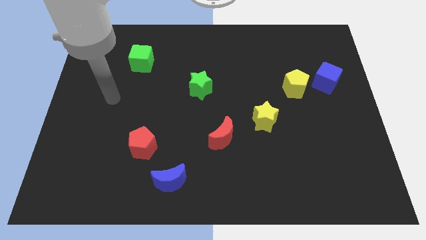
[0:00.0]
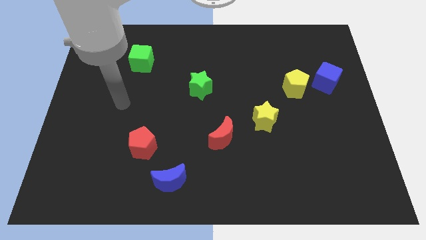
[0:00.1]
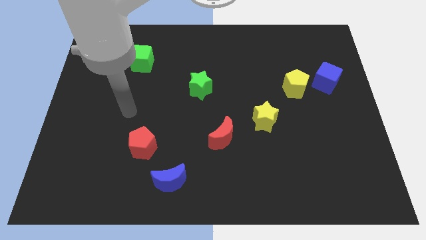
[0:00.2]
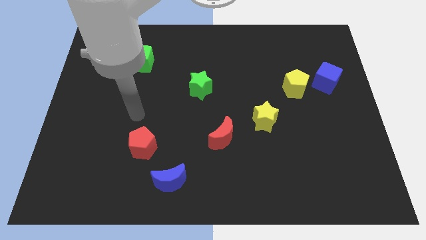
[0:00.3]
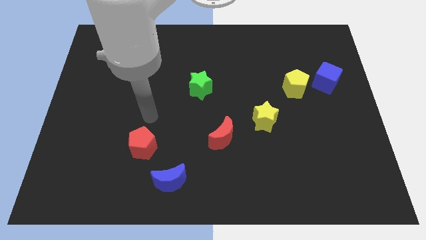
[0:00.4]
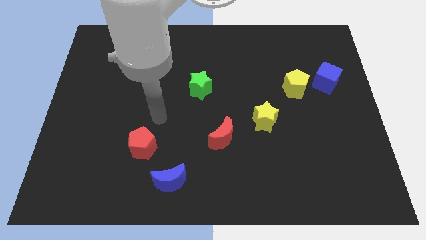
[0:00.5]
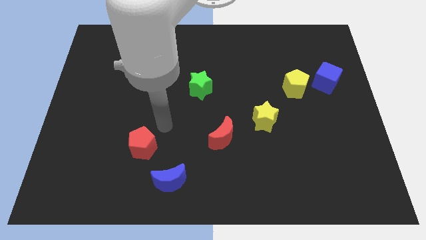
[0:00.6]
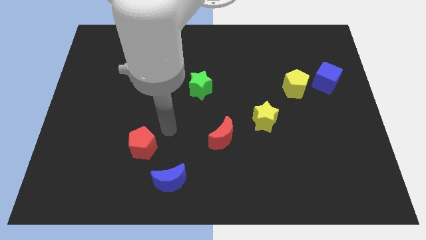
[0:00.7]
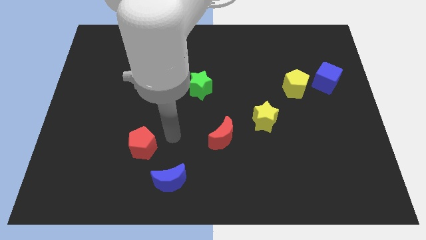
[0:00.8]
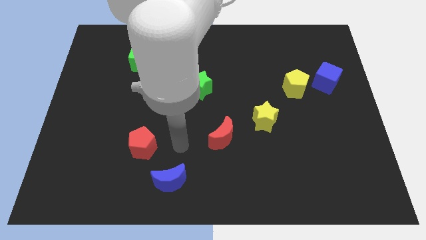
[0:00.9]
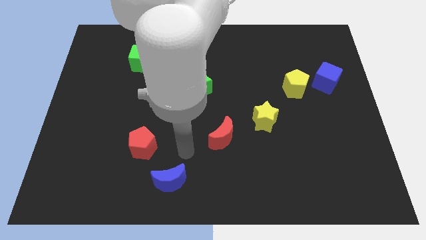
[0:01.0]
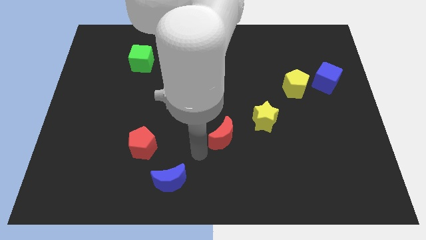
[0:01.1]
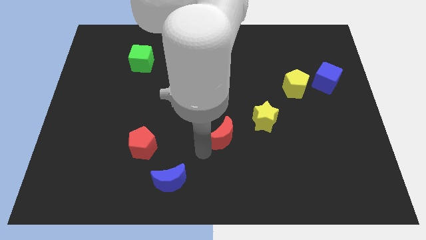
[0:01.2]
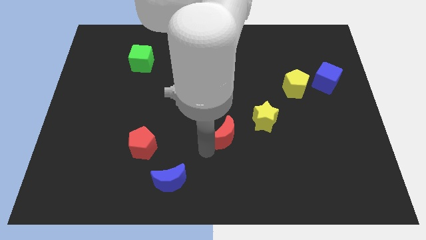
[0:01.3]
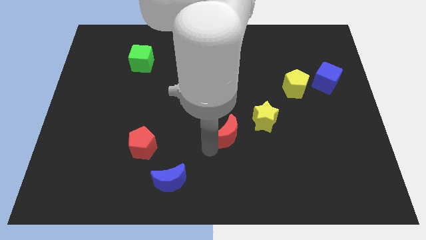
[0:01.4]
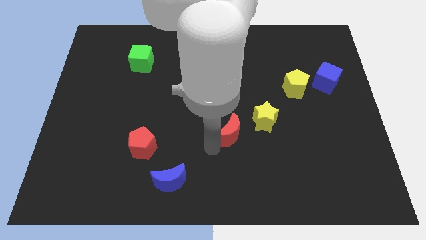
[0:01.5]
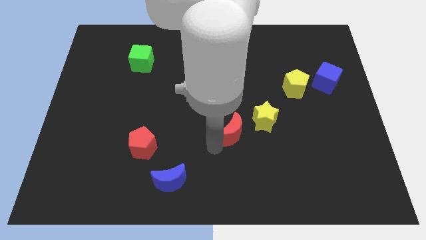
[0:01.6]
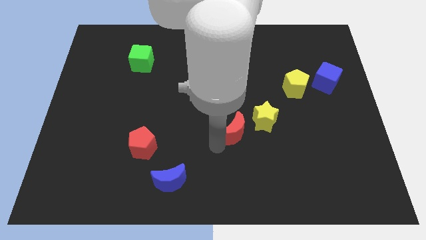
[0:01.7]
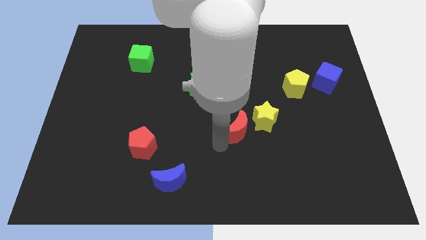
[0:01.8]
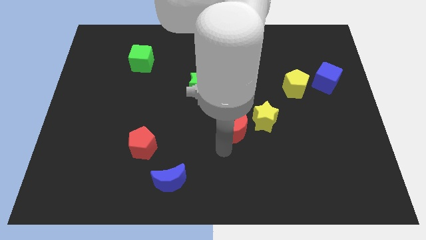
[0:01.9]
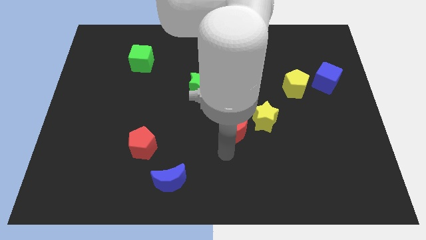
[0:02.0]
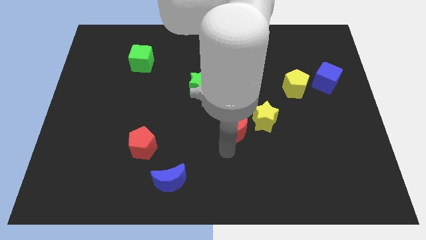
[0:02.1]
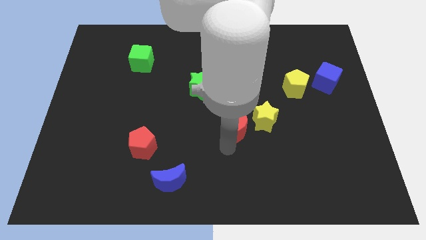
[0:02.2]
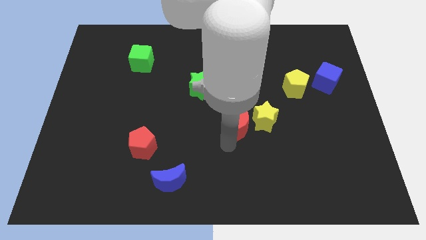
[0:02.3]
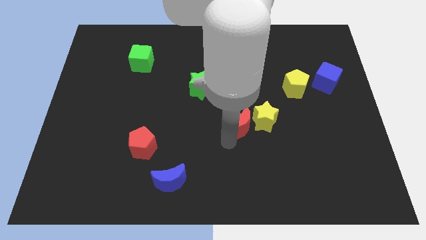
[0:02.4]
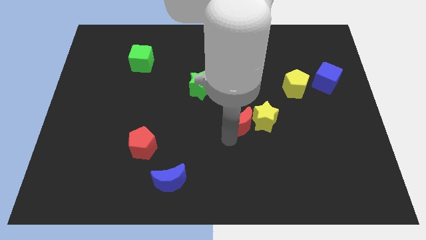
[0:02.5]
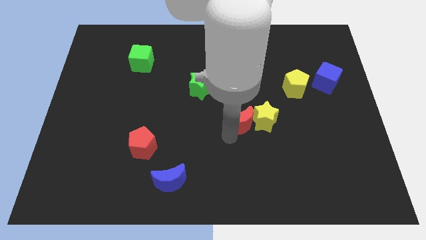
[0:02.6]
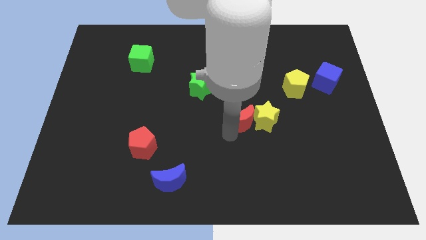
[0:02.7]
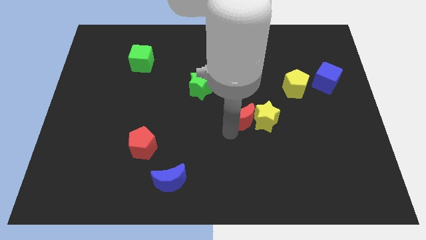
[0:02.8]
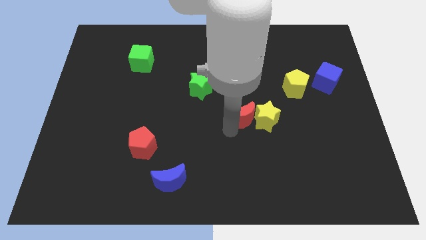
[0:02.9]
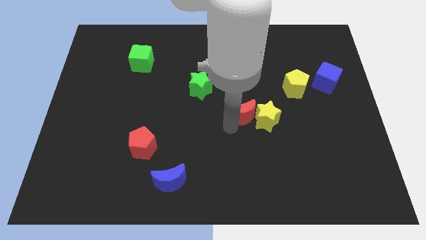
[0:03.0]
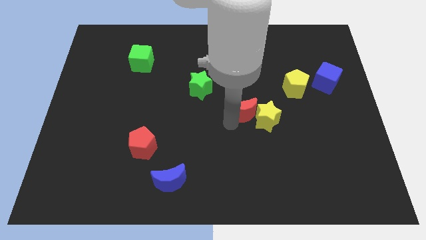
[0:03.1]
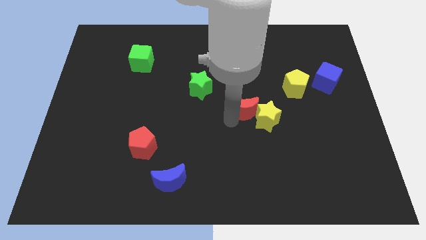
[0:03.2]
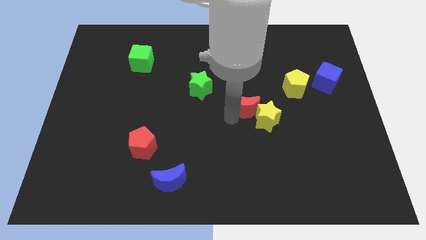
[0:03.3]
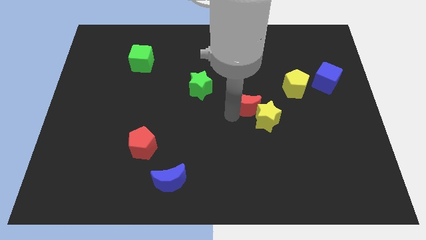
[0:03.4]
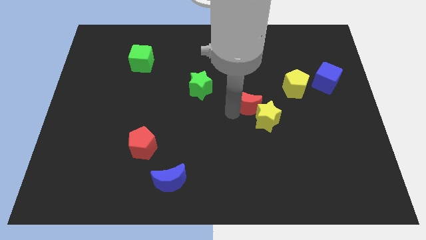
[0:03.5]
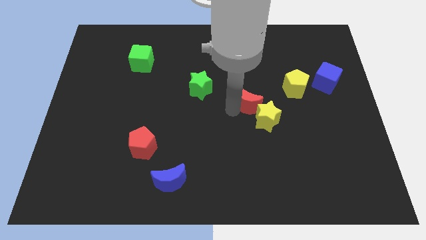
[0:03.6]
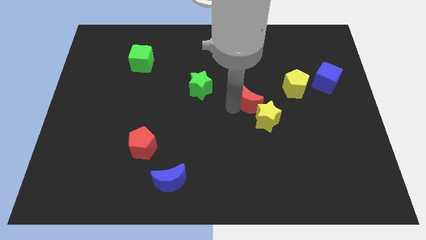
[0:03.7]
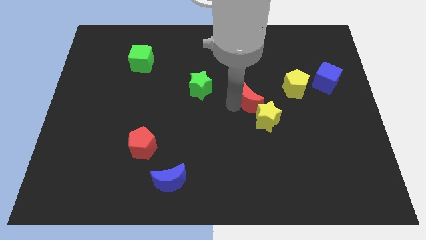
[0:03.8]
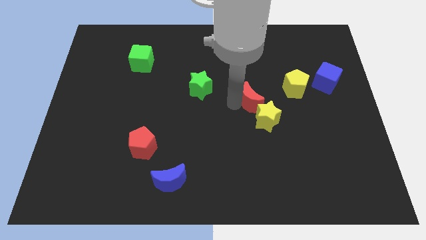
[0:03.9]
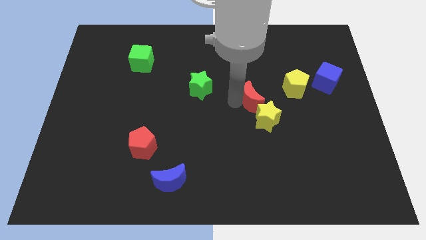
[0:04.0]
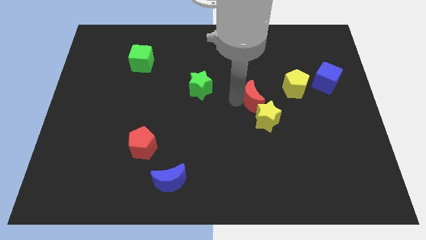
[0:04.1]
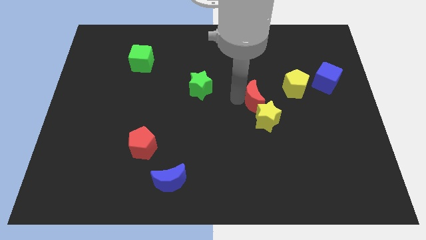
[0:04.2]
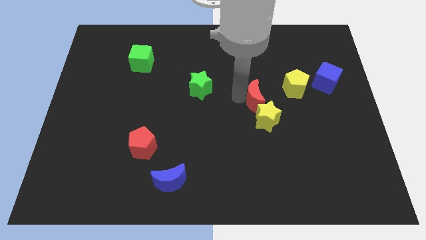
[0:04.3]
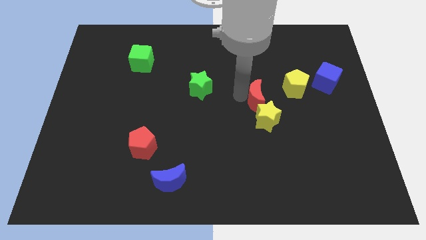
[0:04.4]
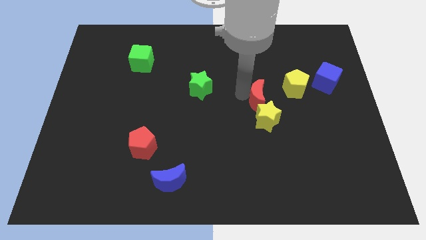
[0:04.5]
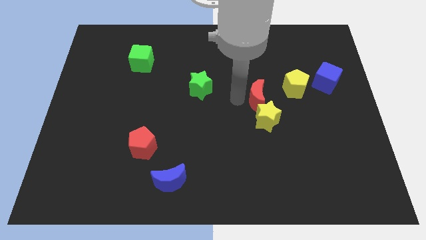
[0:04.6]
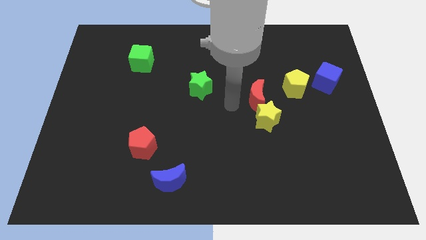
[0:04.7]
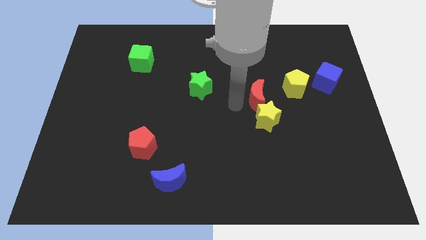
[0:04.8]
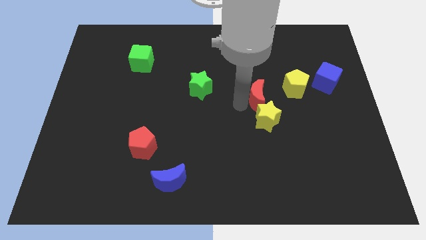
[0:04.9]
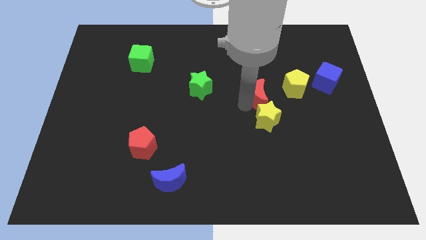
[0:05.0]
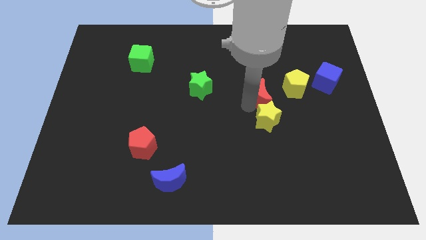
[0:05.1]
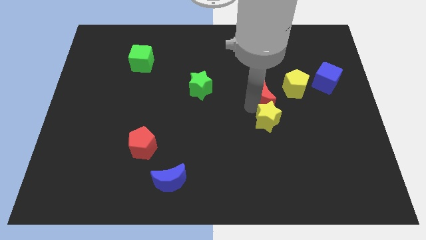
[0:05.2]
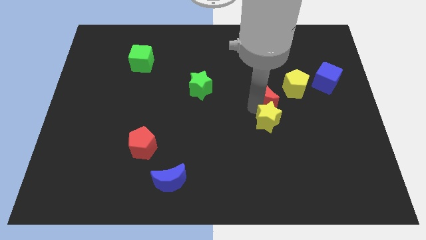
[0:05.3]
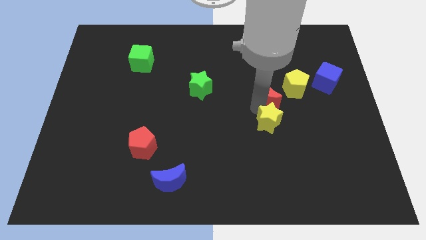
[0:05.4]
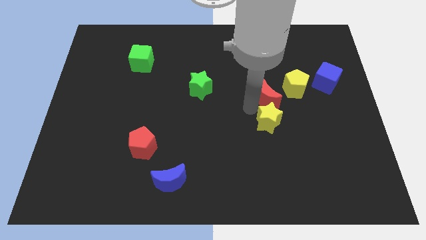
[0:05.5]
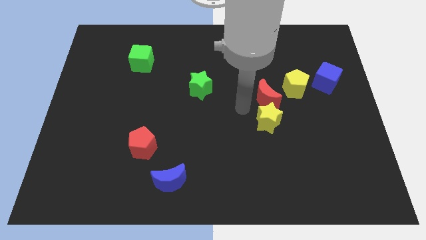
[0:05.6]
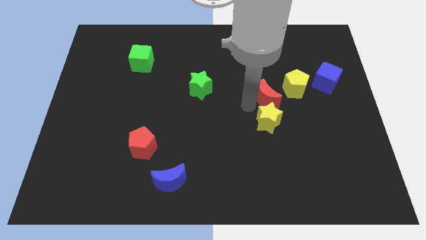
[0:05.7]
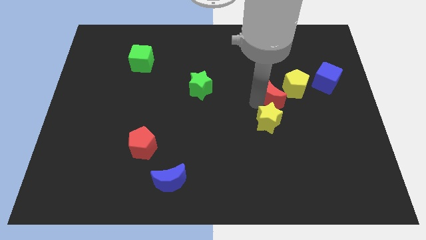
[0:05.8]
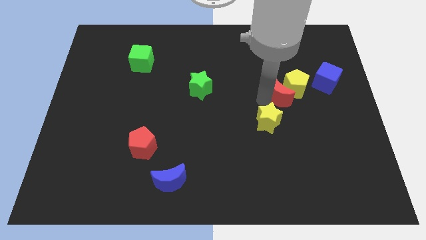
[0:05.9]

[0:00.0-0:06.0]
put the red moon next to the yellow pentagon

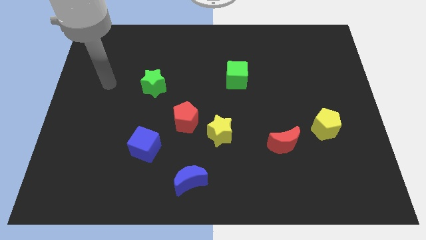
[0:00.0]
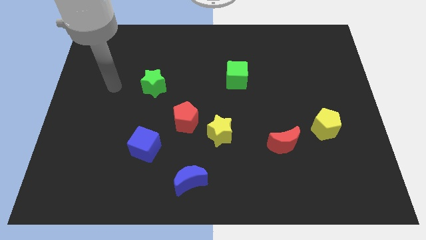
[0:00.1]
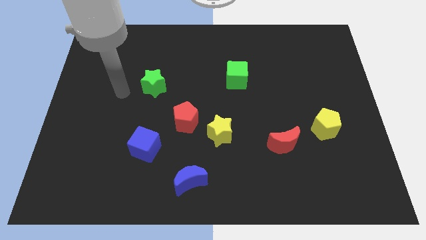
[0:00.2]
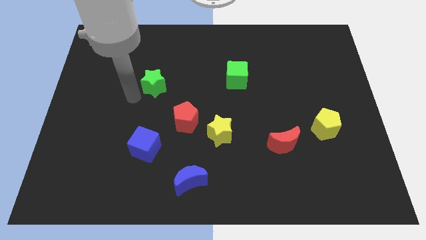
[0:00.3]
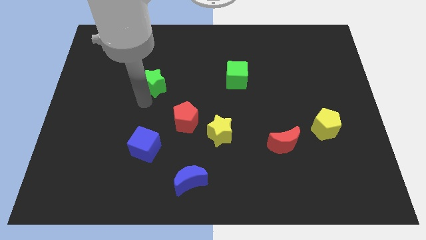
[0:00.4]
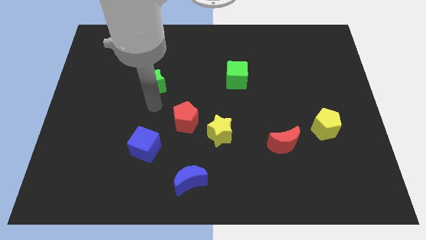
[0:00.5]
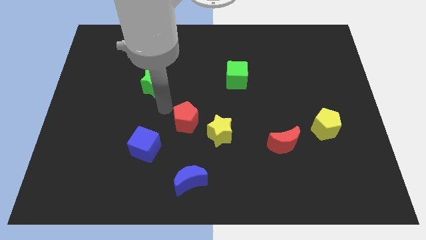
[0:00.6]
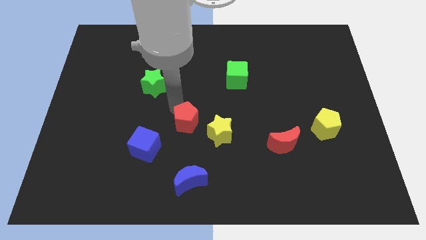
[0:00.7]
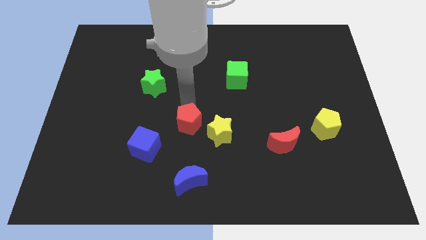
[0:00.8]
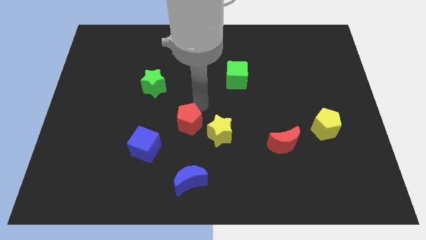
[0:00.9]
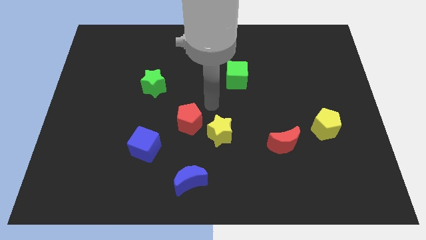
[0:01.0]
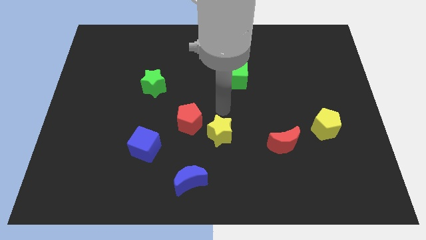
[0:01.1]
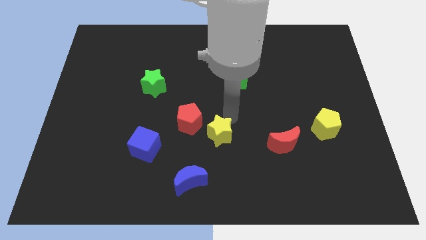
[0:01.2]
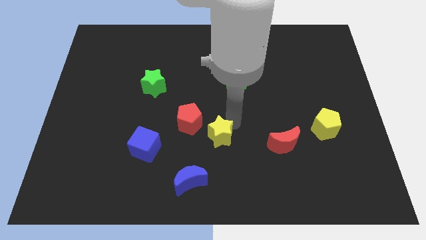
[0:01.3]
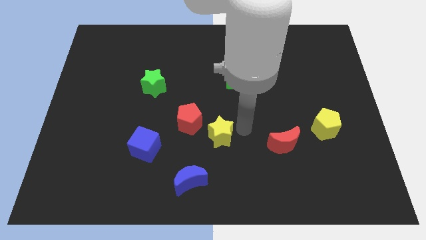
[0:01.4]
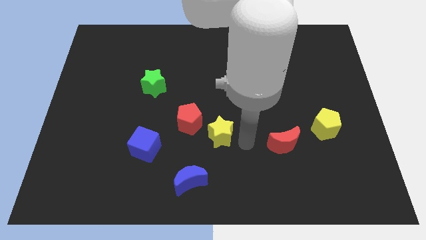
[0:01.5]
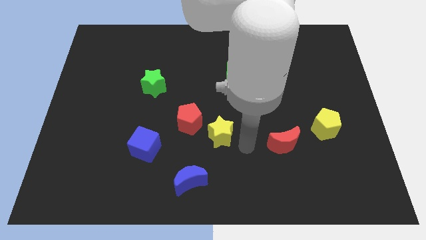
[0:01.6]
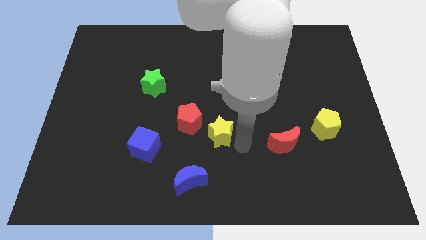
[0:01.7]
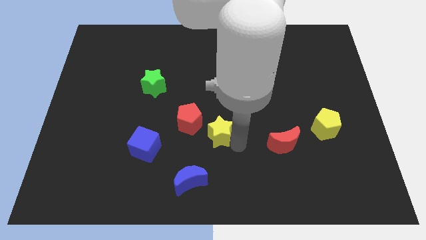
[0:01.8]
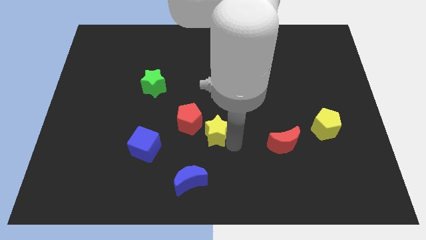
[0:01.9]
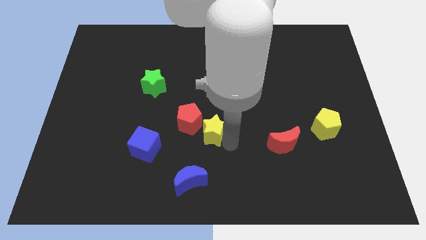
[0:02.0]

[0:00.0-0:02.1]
slide the yellow star next to the red pentagon

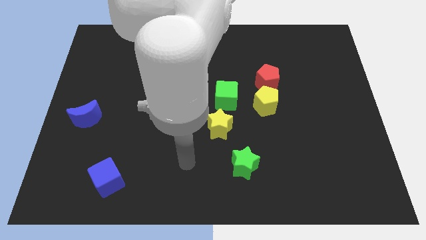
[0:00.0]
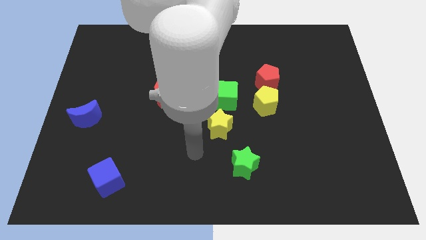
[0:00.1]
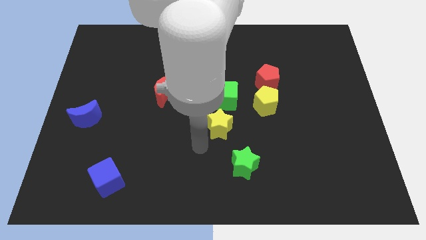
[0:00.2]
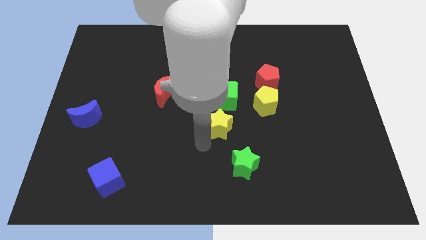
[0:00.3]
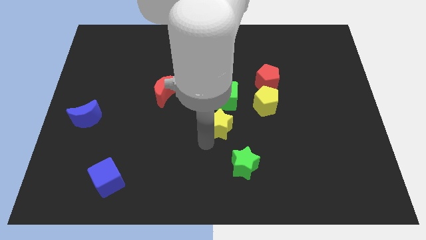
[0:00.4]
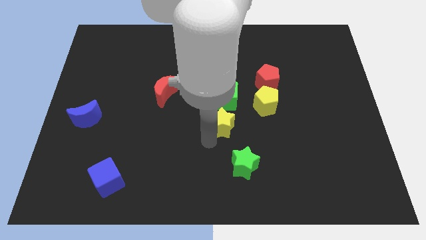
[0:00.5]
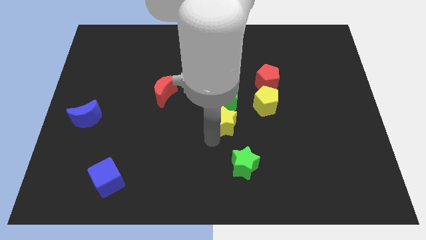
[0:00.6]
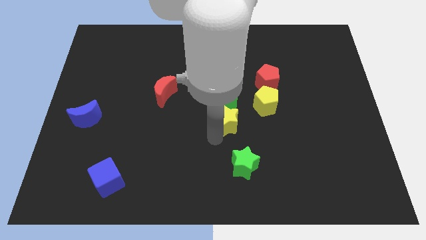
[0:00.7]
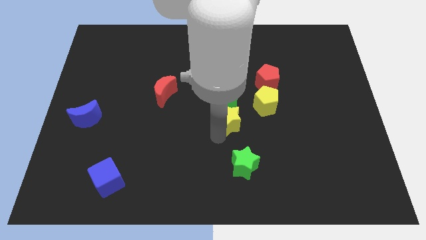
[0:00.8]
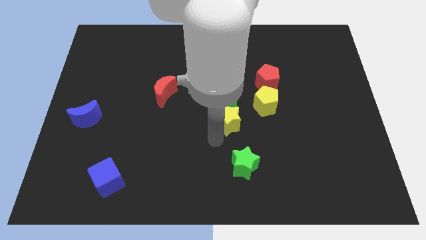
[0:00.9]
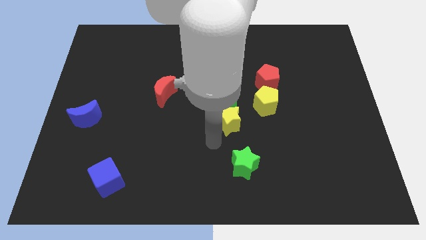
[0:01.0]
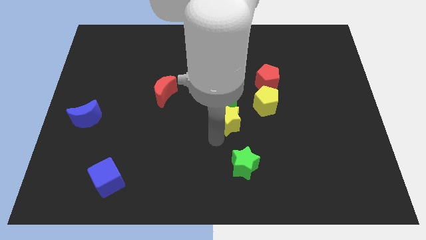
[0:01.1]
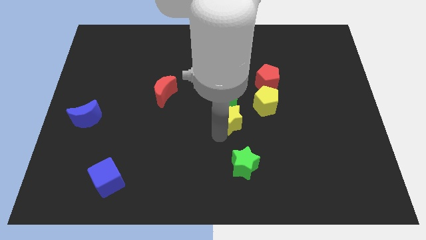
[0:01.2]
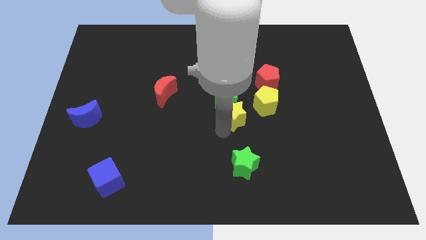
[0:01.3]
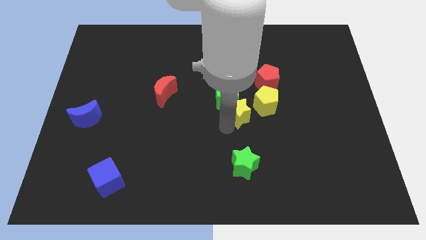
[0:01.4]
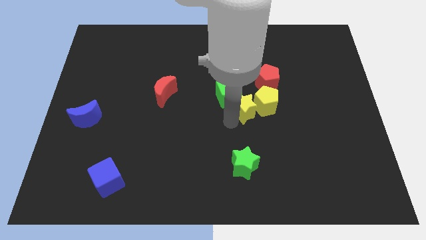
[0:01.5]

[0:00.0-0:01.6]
push the yellow star towards the yellow pentagon
